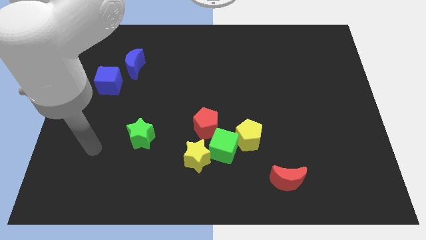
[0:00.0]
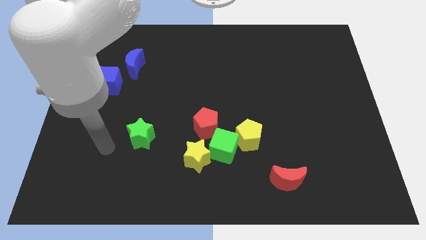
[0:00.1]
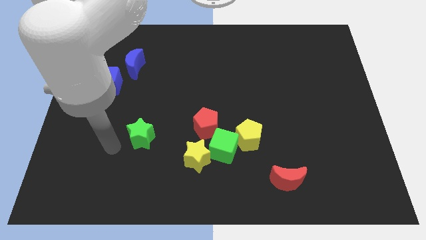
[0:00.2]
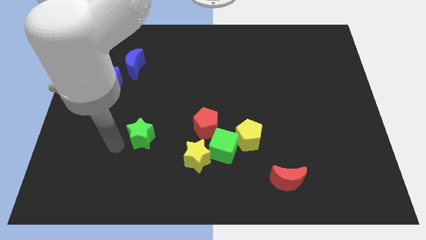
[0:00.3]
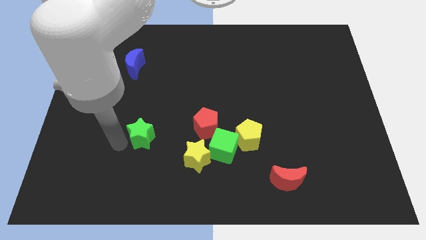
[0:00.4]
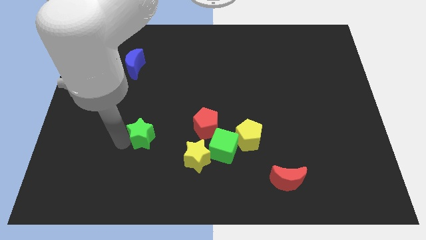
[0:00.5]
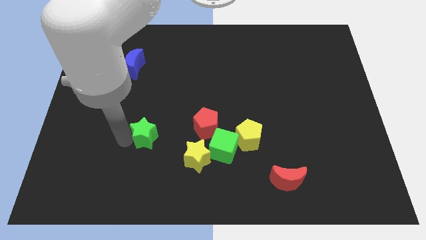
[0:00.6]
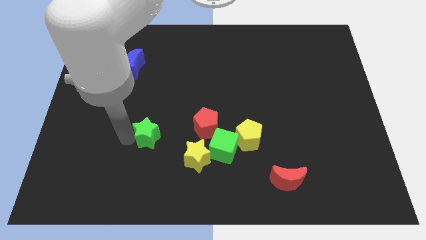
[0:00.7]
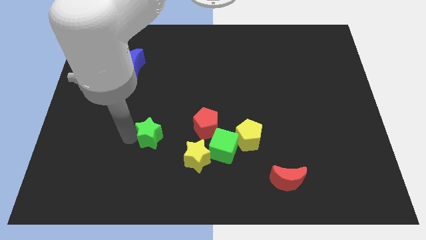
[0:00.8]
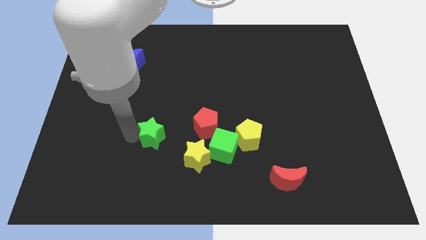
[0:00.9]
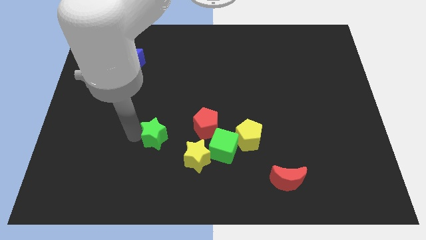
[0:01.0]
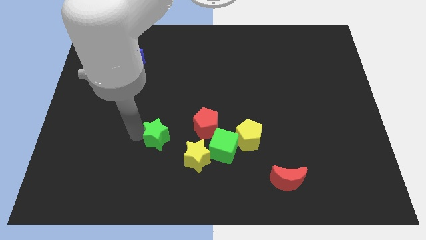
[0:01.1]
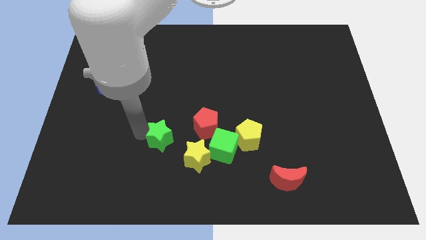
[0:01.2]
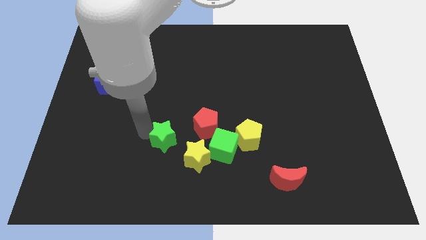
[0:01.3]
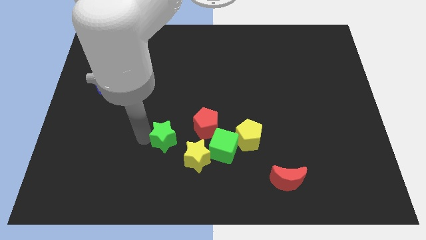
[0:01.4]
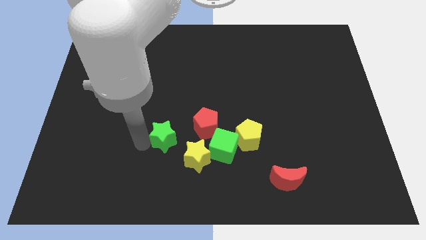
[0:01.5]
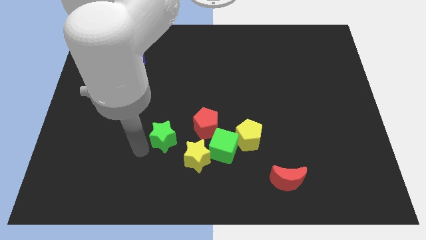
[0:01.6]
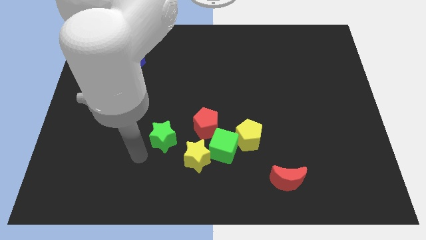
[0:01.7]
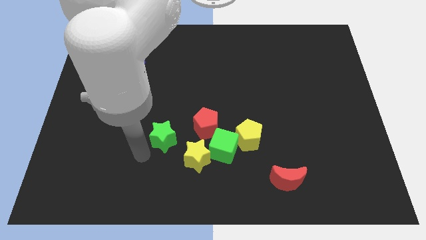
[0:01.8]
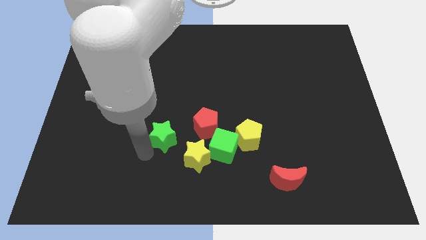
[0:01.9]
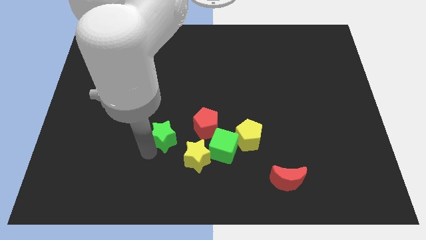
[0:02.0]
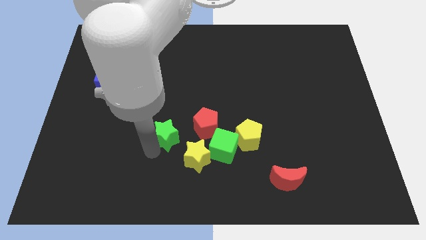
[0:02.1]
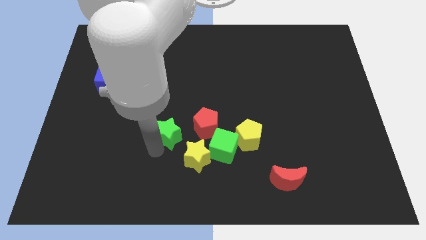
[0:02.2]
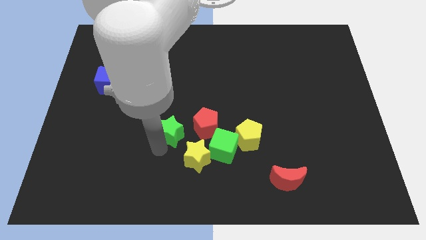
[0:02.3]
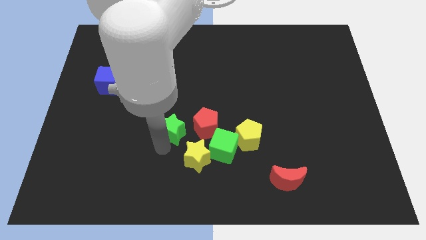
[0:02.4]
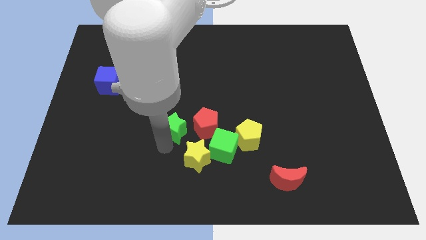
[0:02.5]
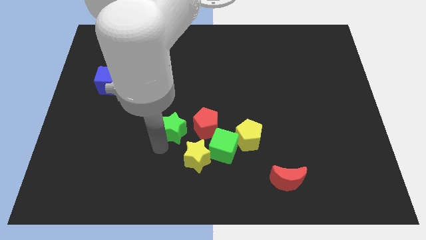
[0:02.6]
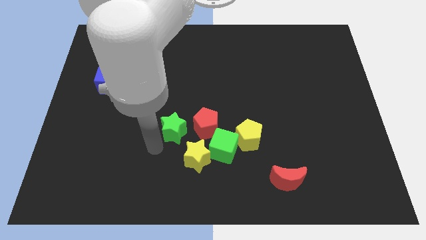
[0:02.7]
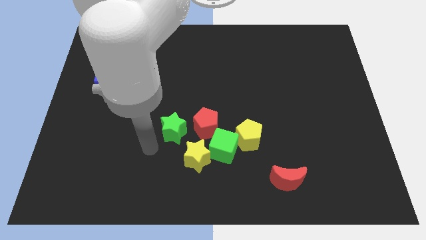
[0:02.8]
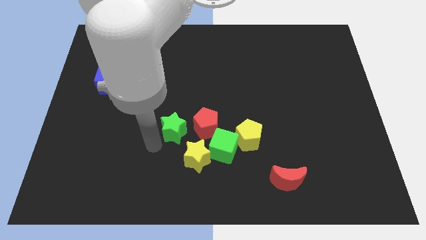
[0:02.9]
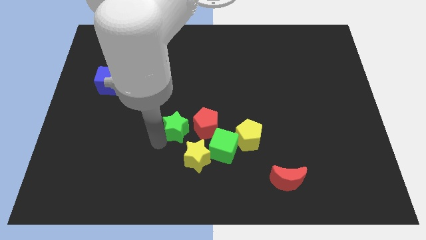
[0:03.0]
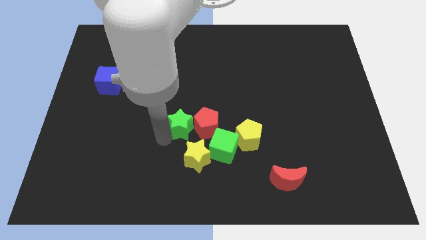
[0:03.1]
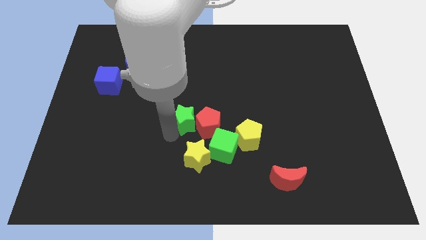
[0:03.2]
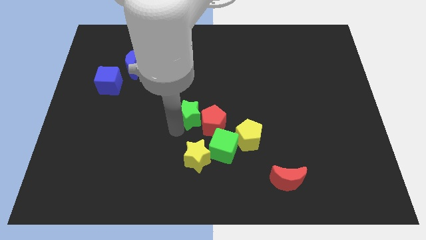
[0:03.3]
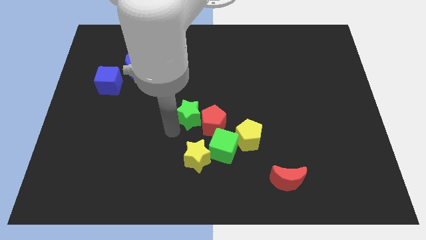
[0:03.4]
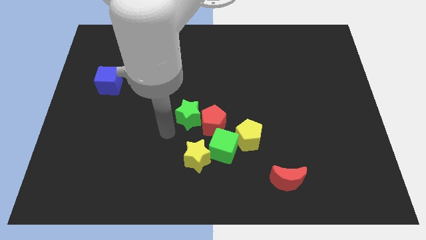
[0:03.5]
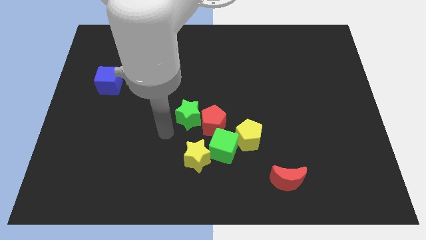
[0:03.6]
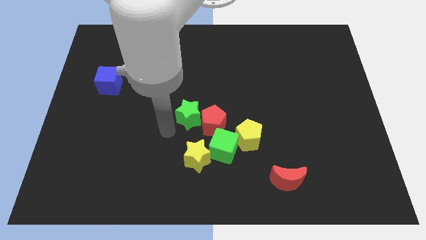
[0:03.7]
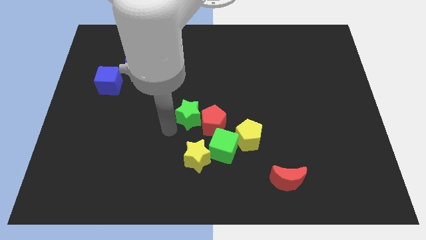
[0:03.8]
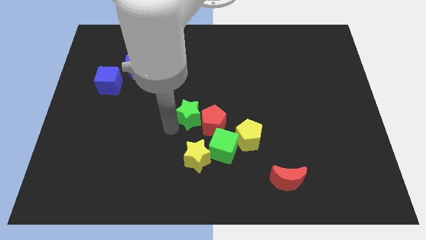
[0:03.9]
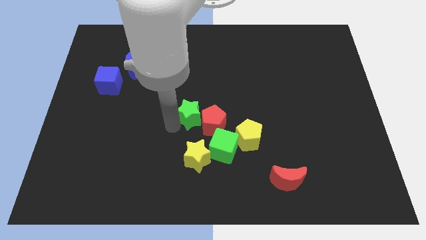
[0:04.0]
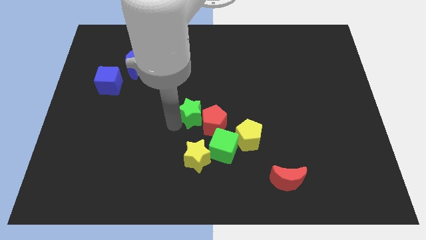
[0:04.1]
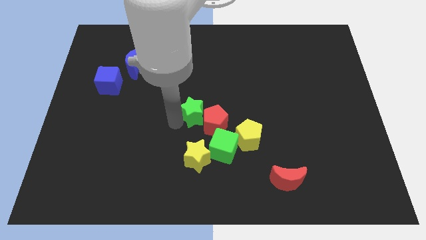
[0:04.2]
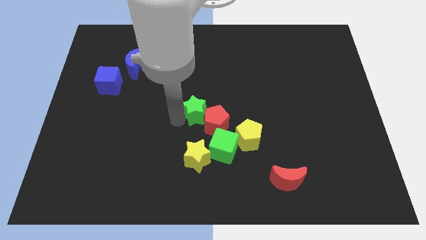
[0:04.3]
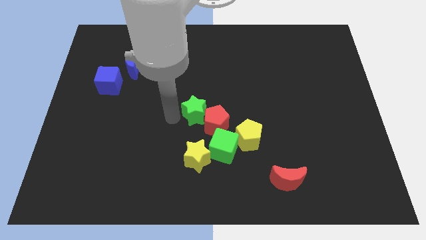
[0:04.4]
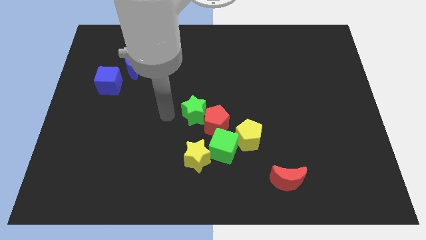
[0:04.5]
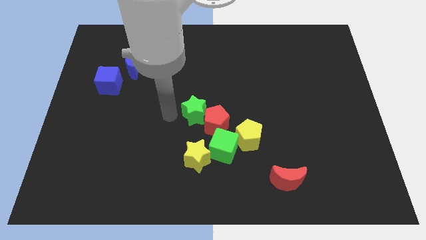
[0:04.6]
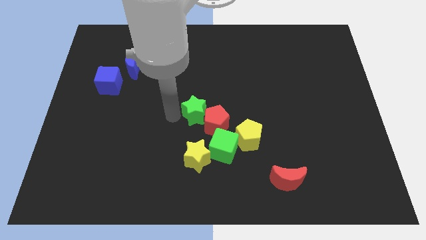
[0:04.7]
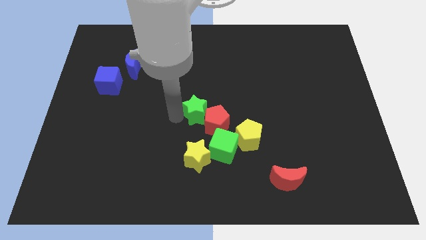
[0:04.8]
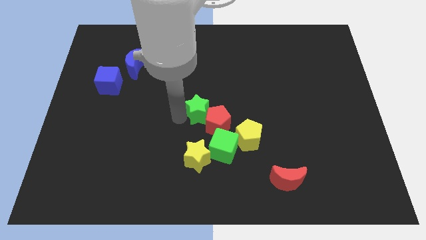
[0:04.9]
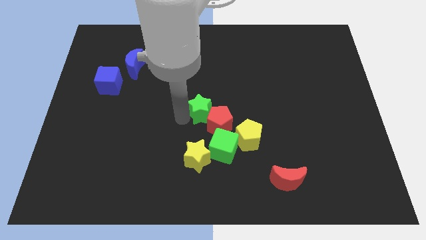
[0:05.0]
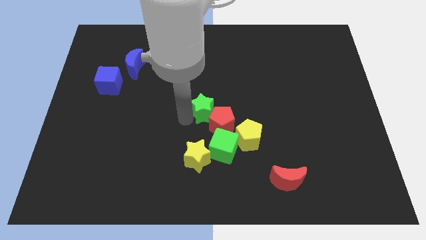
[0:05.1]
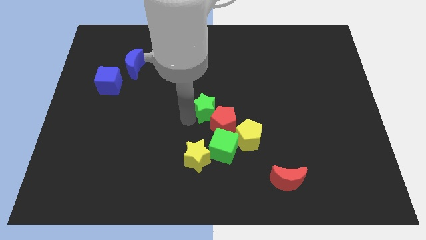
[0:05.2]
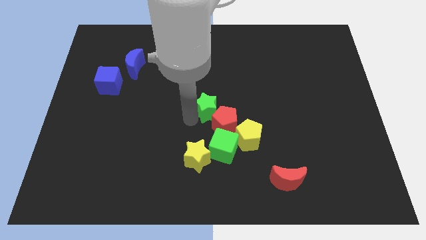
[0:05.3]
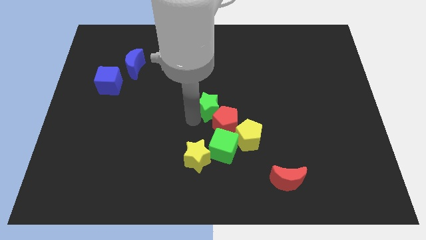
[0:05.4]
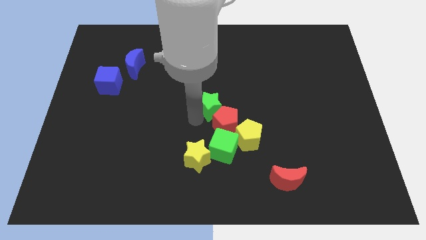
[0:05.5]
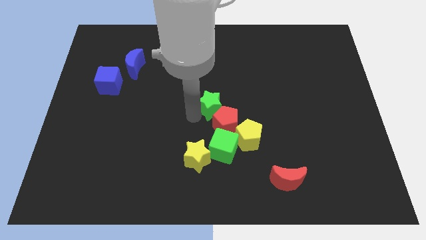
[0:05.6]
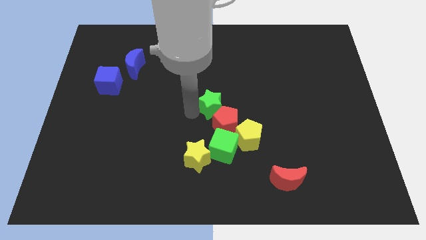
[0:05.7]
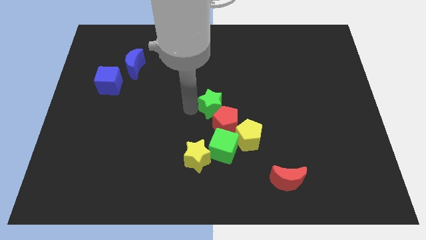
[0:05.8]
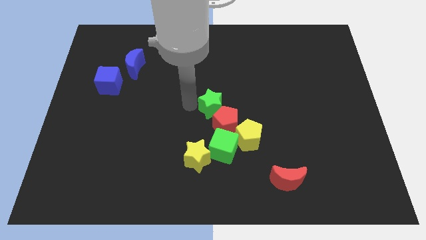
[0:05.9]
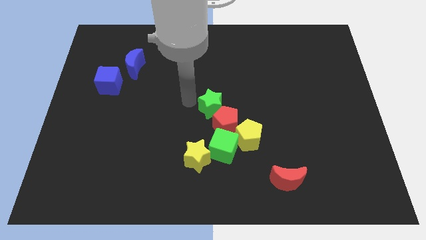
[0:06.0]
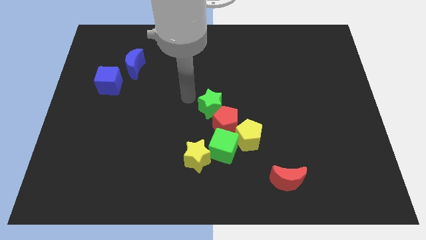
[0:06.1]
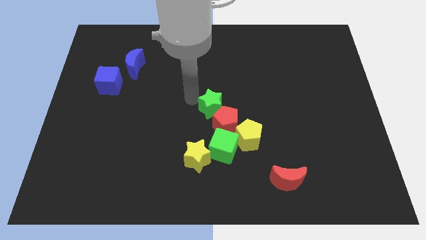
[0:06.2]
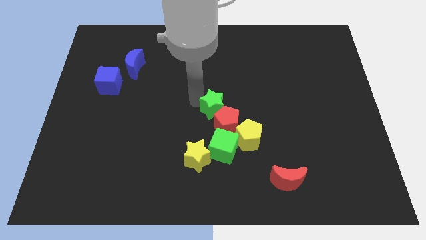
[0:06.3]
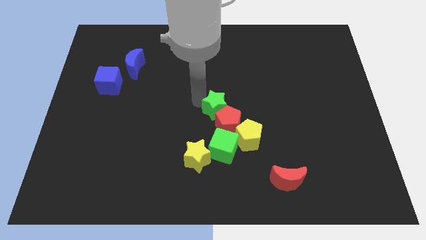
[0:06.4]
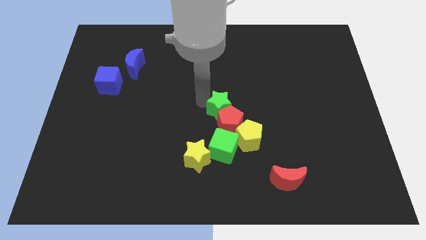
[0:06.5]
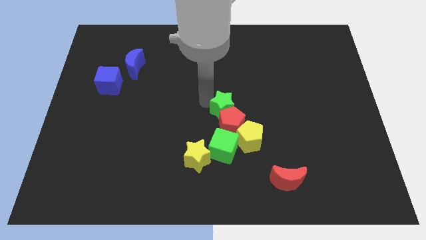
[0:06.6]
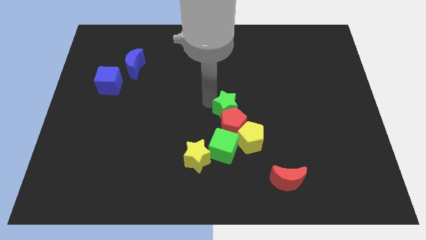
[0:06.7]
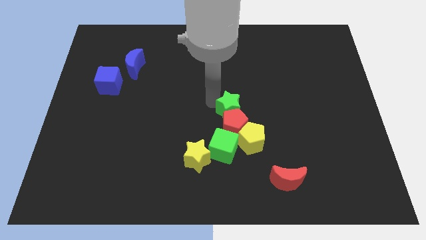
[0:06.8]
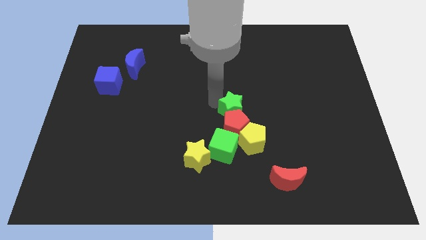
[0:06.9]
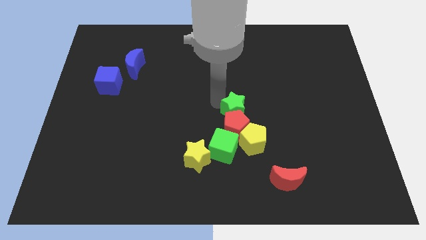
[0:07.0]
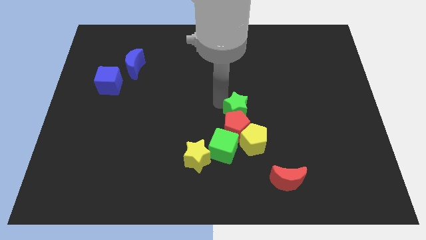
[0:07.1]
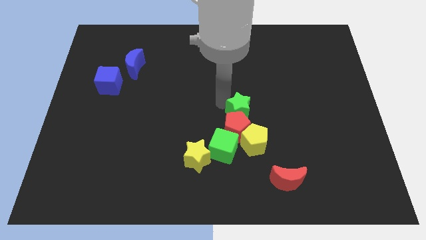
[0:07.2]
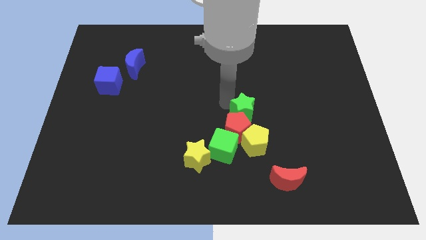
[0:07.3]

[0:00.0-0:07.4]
move the green star to the right

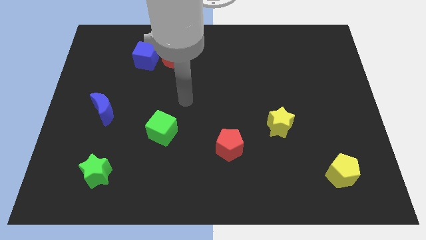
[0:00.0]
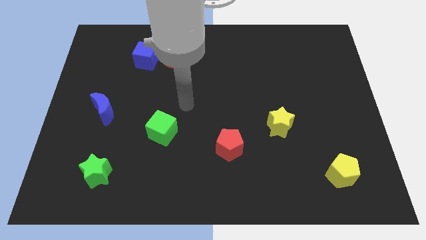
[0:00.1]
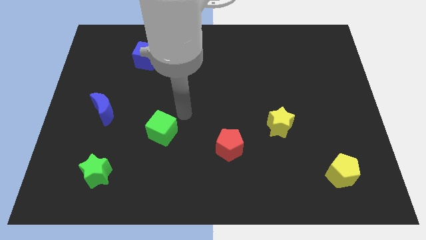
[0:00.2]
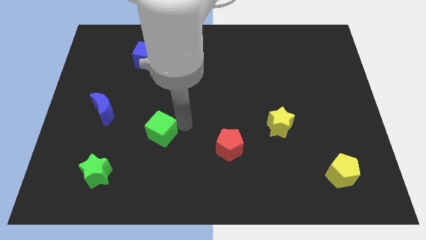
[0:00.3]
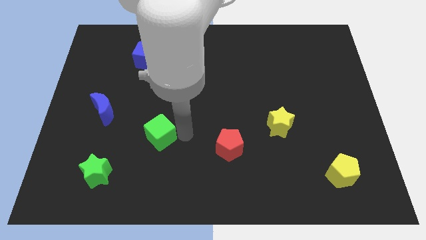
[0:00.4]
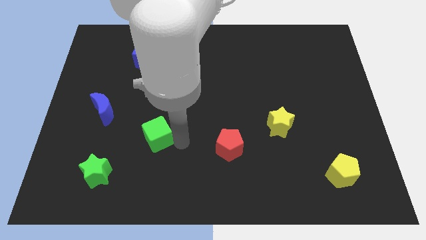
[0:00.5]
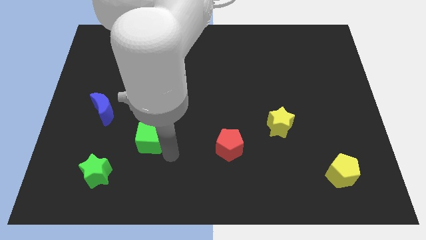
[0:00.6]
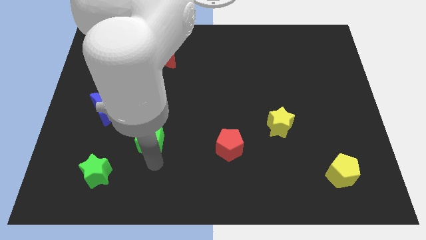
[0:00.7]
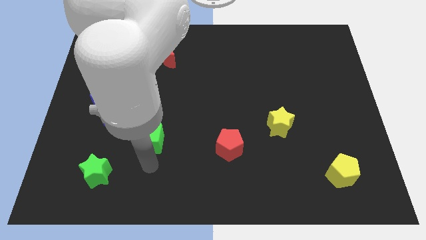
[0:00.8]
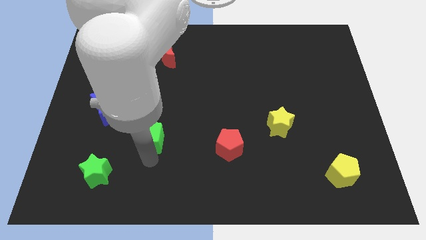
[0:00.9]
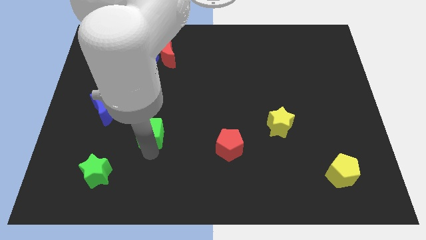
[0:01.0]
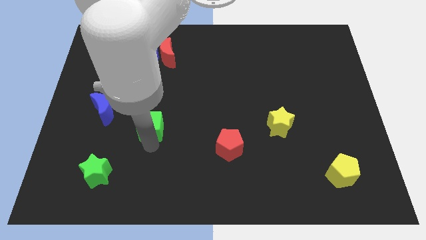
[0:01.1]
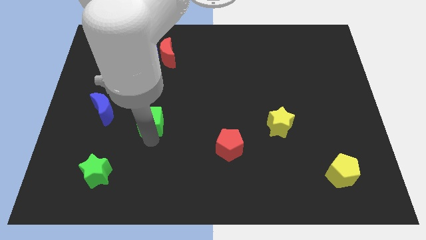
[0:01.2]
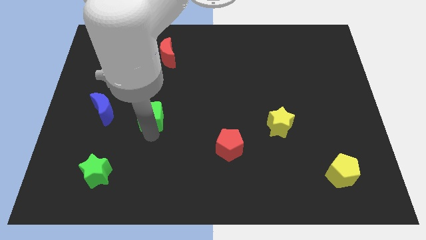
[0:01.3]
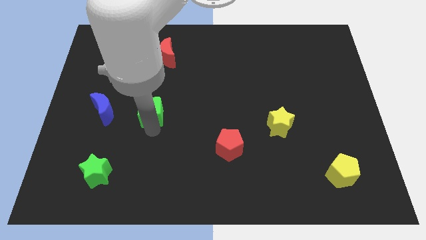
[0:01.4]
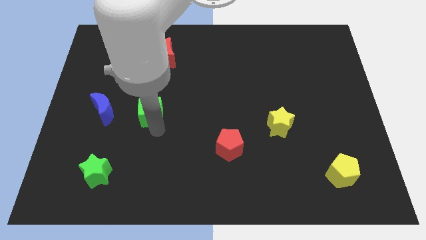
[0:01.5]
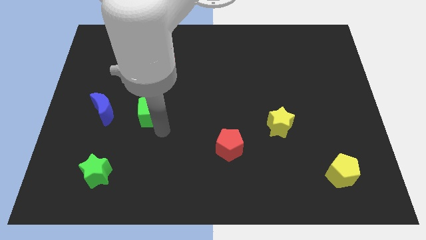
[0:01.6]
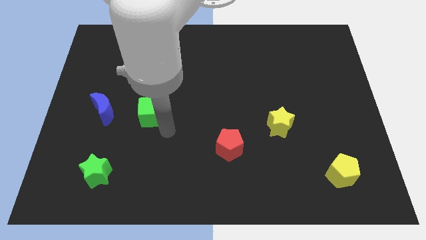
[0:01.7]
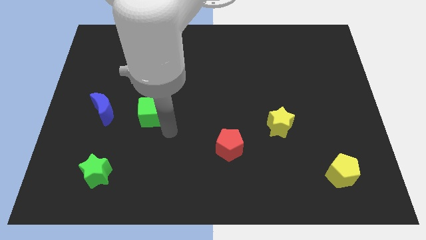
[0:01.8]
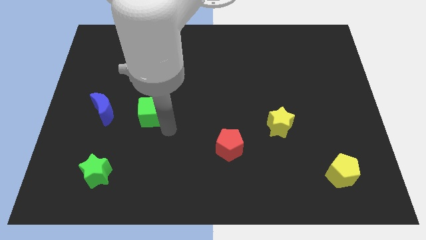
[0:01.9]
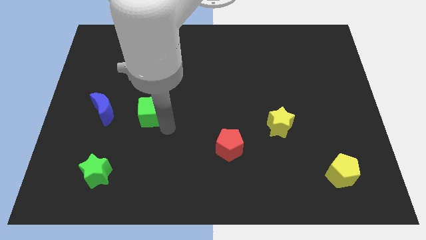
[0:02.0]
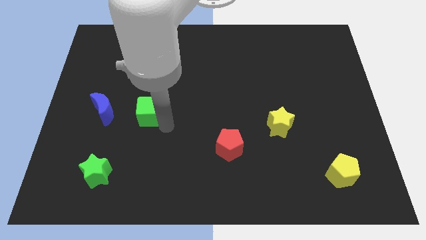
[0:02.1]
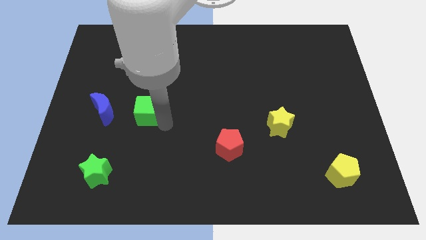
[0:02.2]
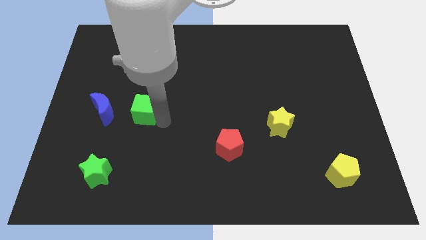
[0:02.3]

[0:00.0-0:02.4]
slightly push the green cube up and then left
